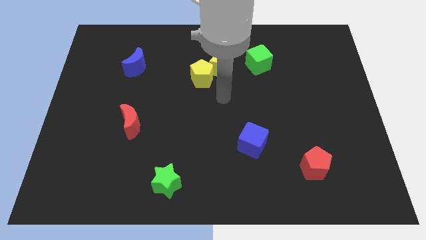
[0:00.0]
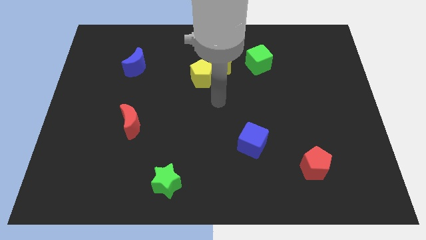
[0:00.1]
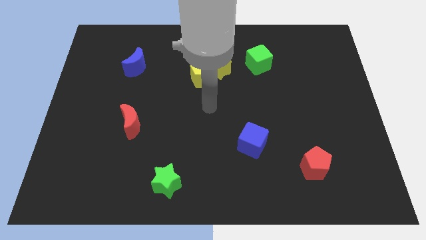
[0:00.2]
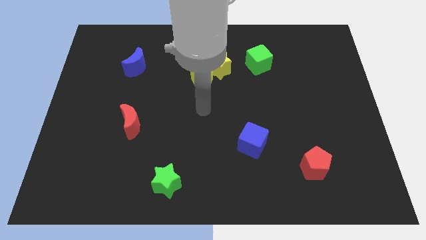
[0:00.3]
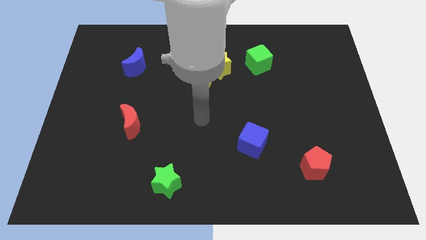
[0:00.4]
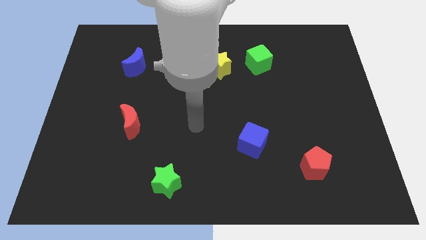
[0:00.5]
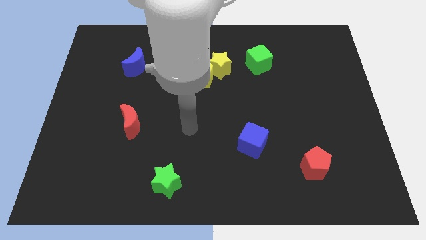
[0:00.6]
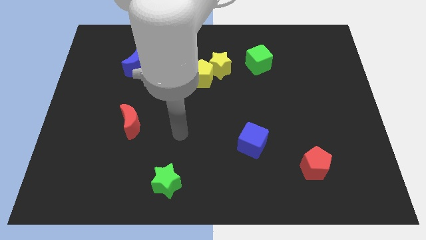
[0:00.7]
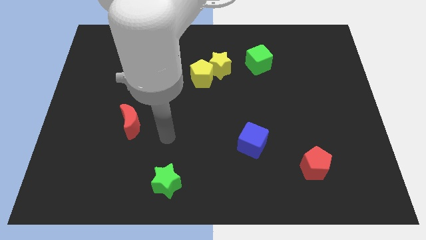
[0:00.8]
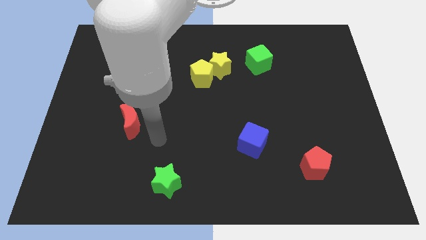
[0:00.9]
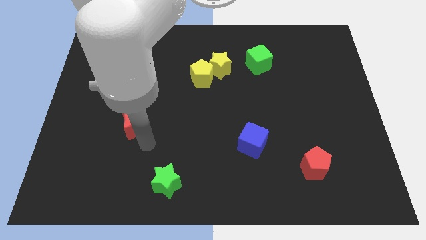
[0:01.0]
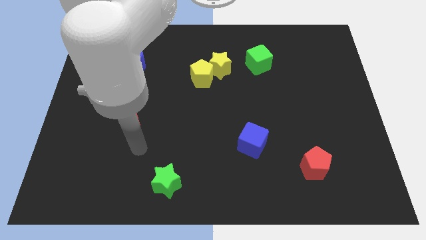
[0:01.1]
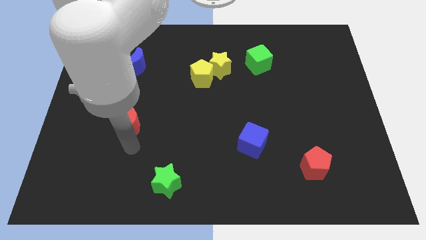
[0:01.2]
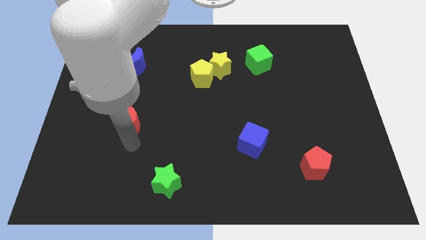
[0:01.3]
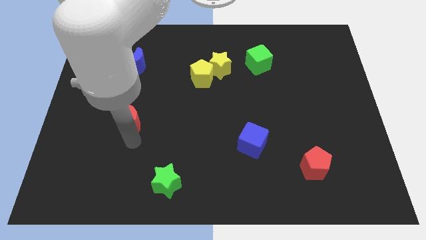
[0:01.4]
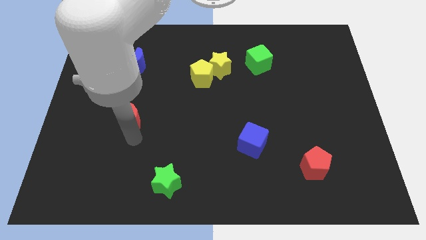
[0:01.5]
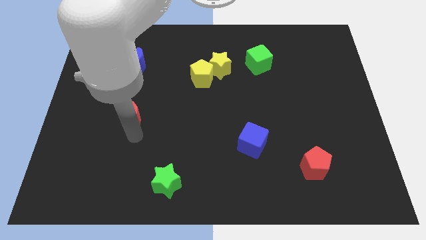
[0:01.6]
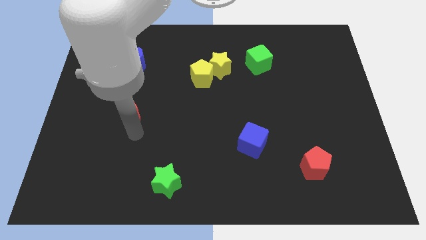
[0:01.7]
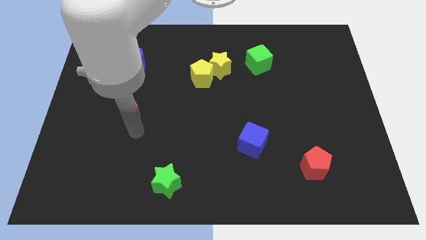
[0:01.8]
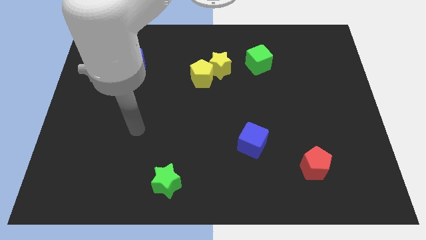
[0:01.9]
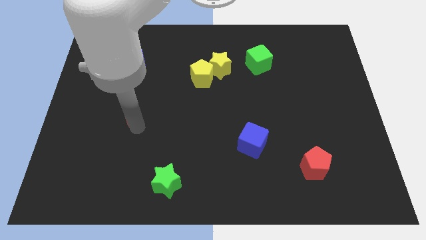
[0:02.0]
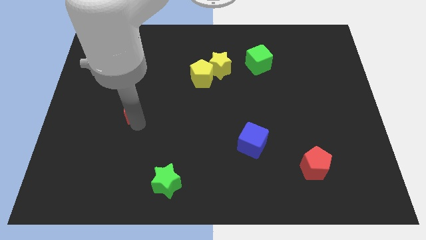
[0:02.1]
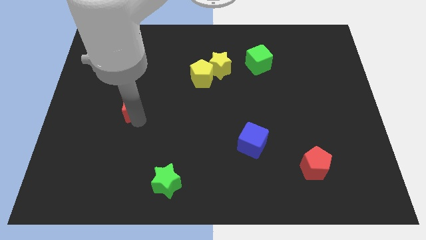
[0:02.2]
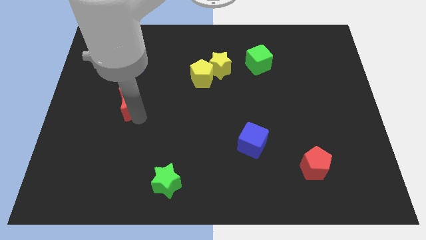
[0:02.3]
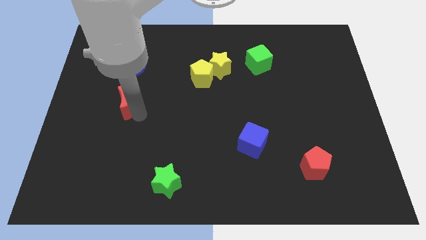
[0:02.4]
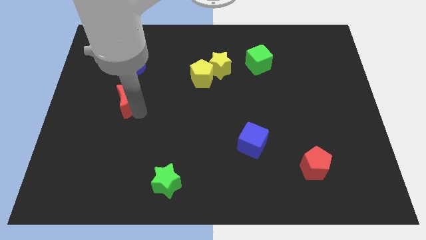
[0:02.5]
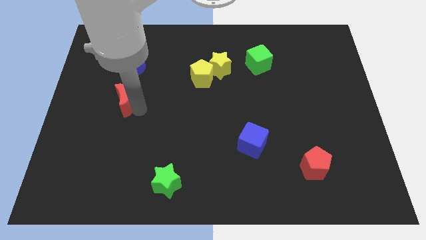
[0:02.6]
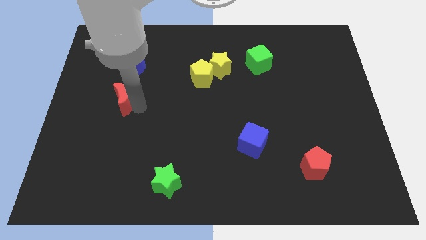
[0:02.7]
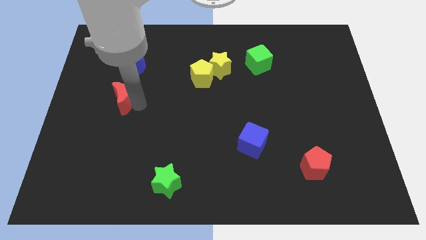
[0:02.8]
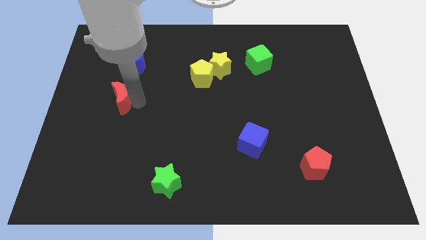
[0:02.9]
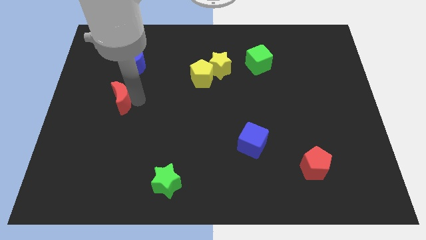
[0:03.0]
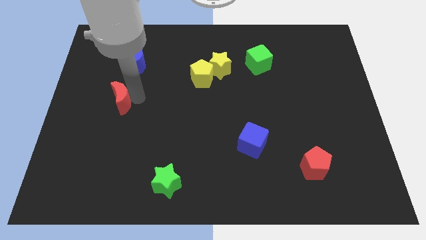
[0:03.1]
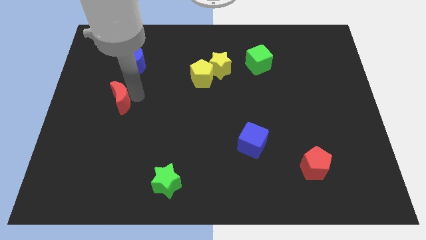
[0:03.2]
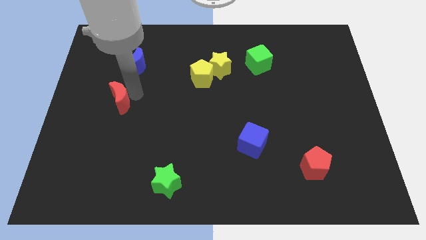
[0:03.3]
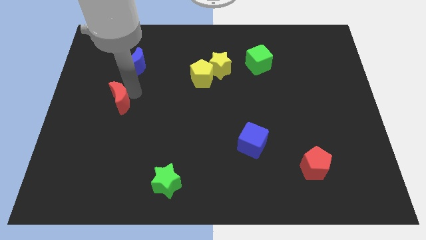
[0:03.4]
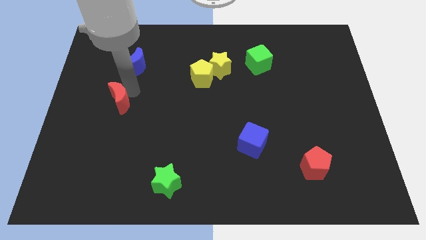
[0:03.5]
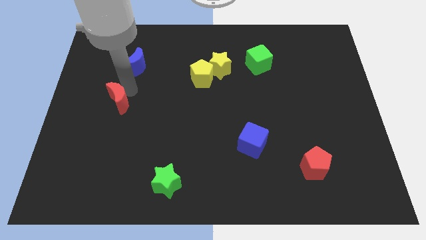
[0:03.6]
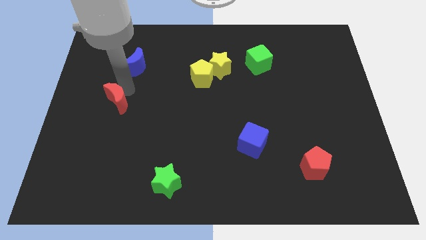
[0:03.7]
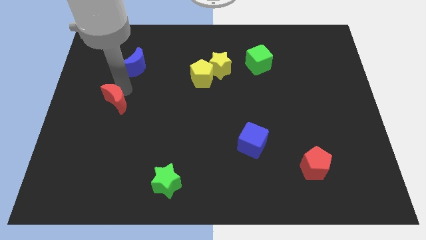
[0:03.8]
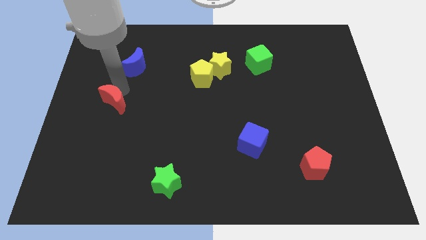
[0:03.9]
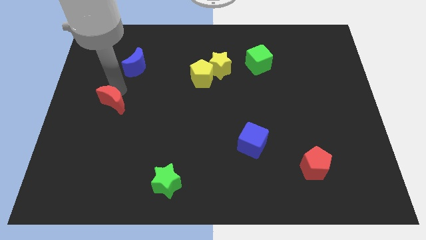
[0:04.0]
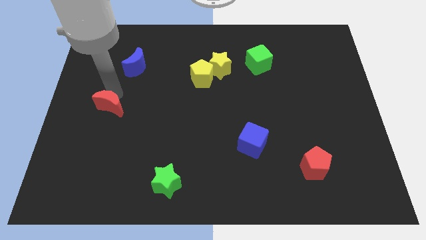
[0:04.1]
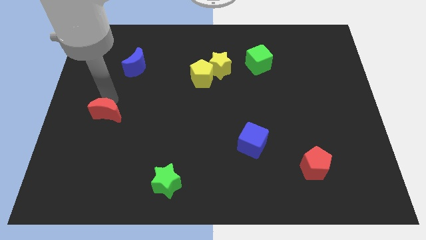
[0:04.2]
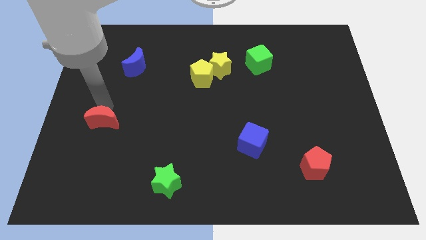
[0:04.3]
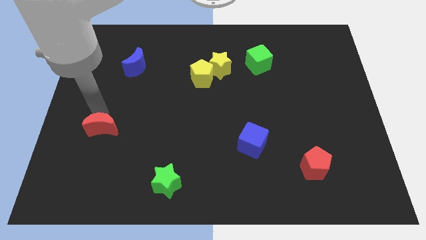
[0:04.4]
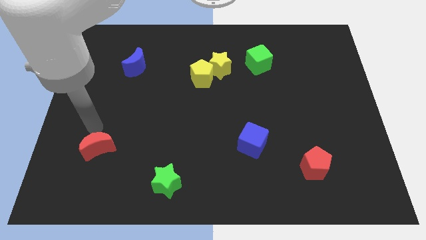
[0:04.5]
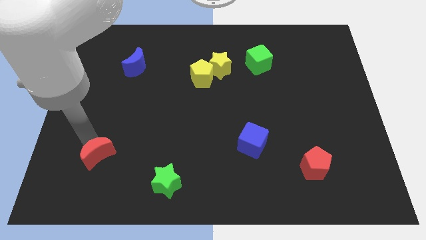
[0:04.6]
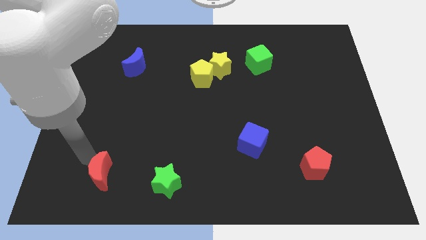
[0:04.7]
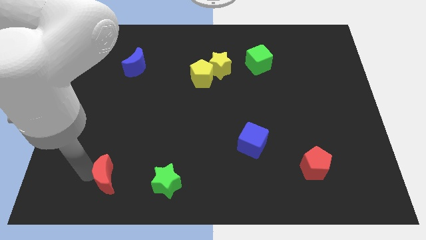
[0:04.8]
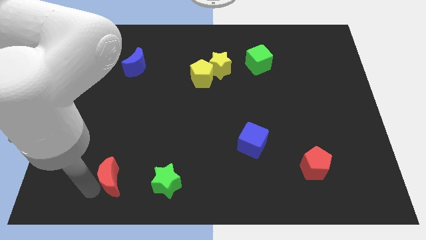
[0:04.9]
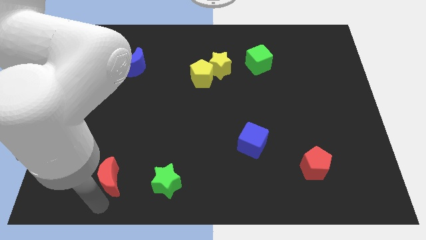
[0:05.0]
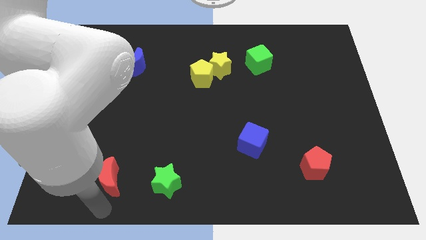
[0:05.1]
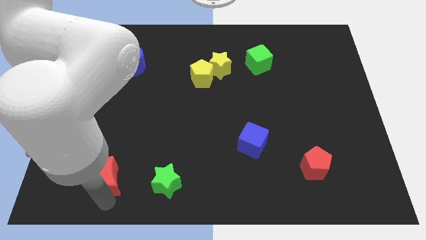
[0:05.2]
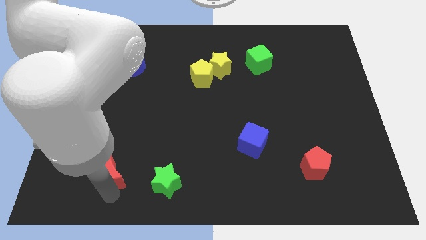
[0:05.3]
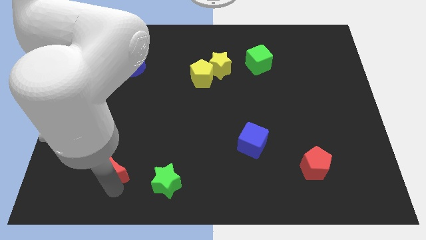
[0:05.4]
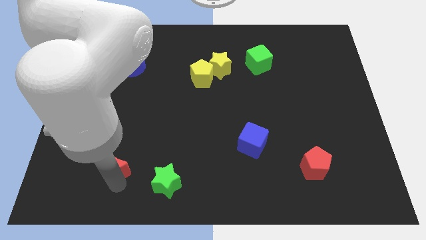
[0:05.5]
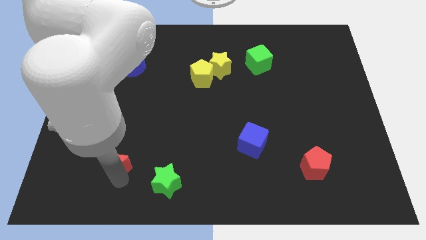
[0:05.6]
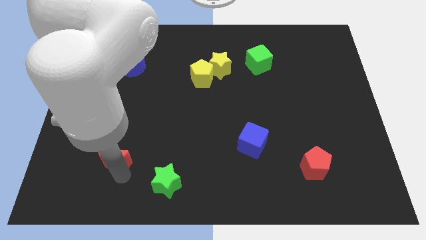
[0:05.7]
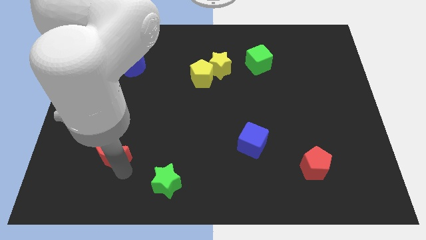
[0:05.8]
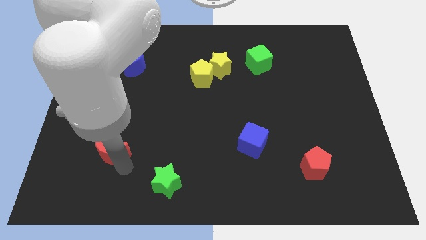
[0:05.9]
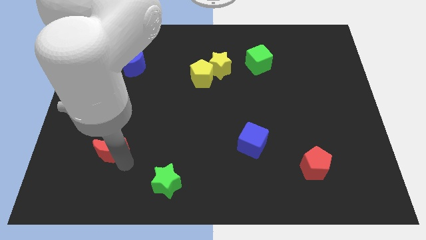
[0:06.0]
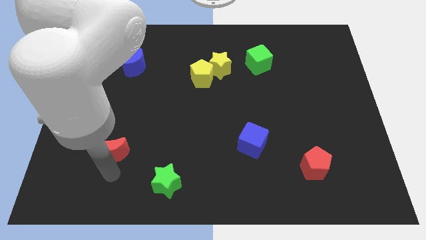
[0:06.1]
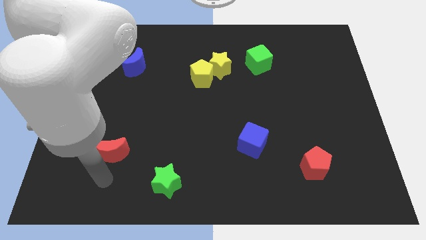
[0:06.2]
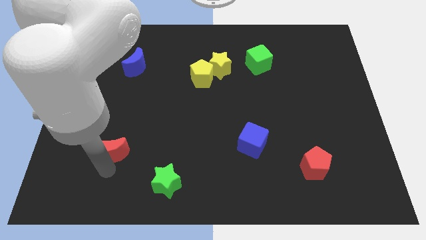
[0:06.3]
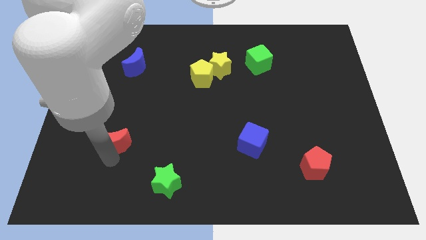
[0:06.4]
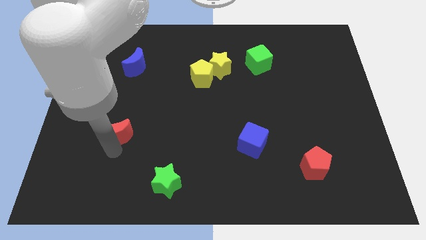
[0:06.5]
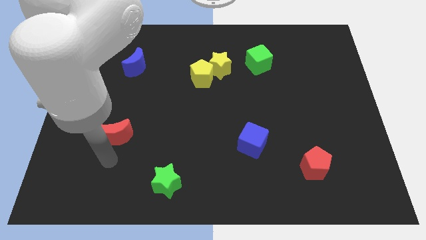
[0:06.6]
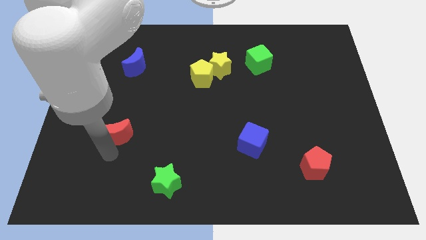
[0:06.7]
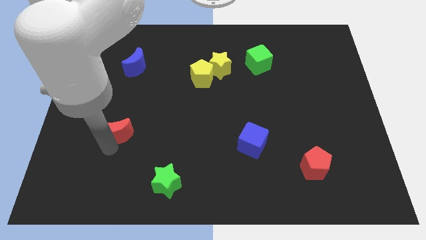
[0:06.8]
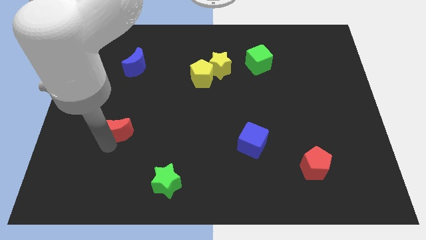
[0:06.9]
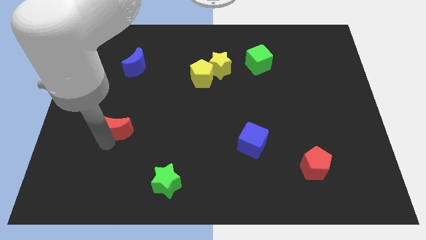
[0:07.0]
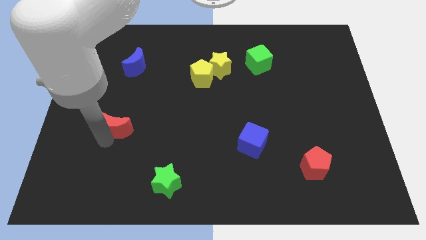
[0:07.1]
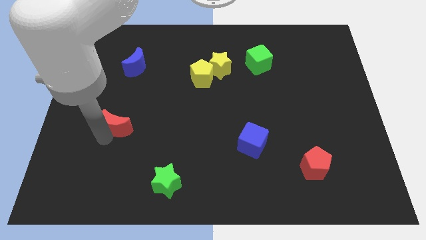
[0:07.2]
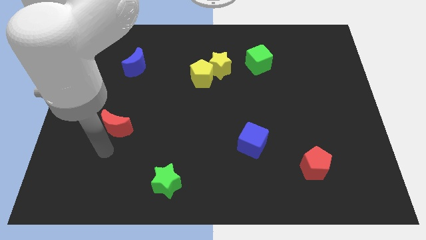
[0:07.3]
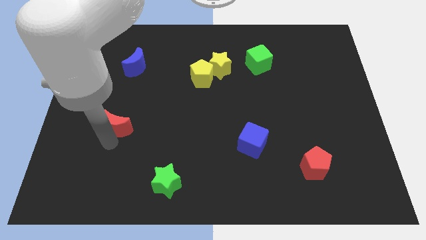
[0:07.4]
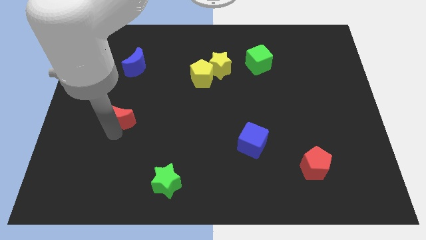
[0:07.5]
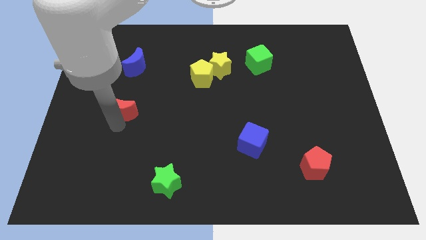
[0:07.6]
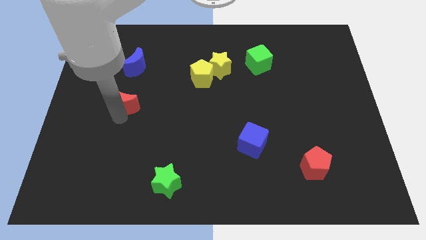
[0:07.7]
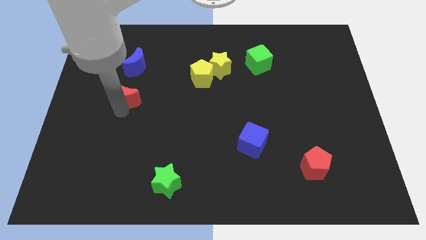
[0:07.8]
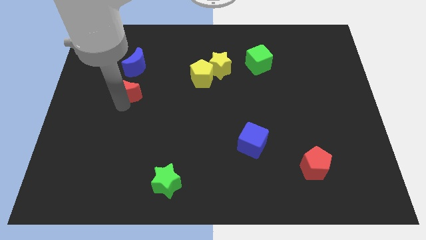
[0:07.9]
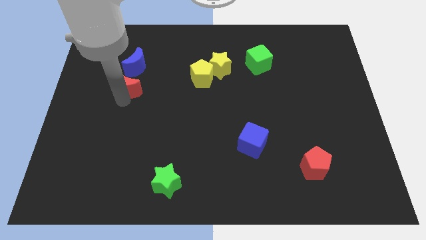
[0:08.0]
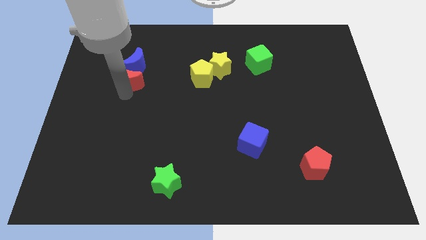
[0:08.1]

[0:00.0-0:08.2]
move the red moon close to the blue moon
